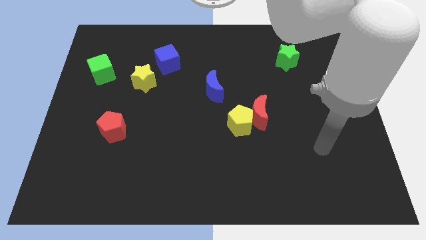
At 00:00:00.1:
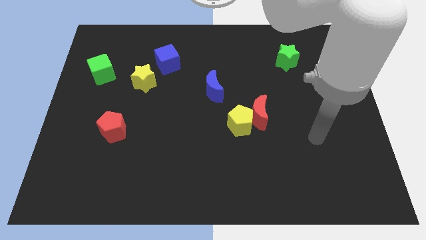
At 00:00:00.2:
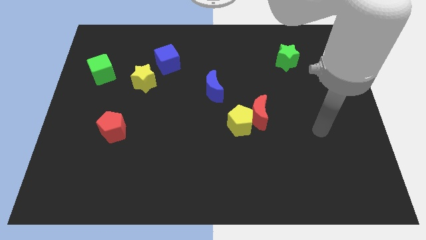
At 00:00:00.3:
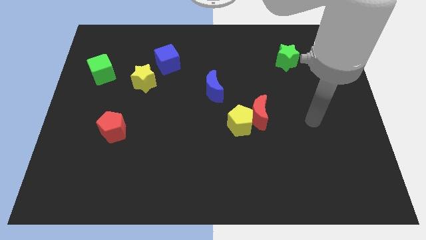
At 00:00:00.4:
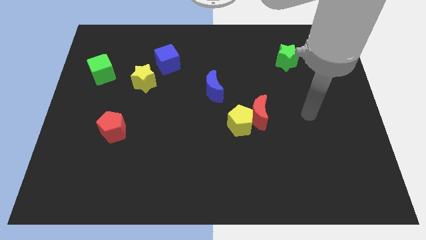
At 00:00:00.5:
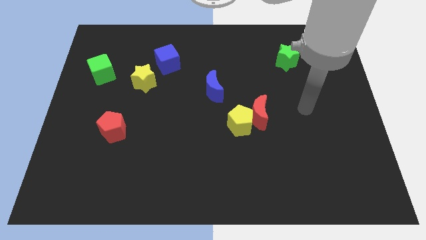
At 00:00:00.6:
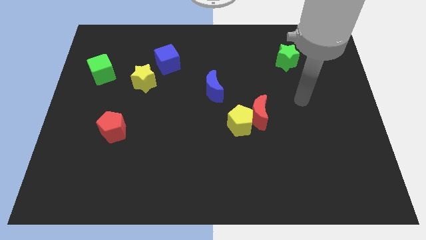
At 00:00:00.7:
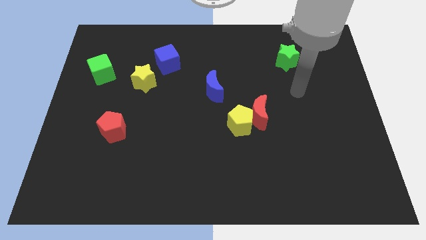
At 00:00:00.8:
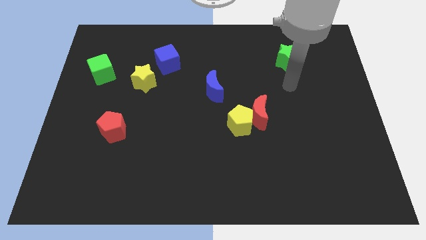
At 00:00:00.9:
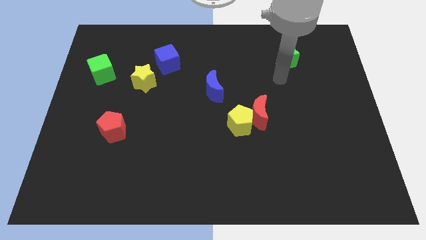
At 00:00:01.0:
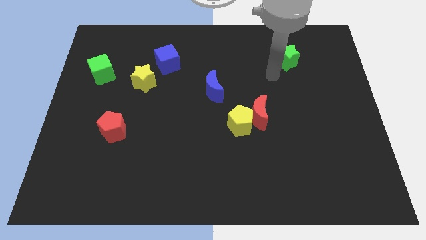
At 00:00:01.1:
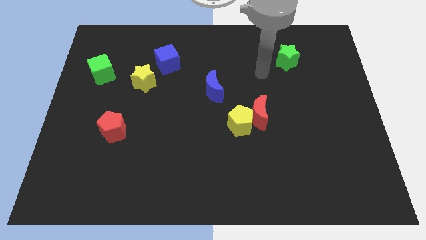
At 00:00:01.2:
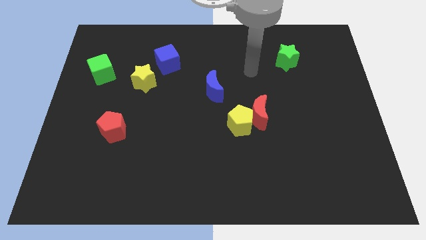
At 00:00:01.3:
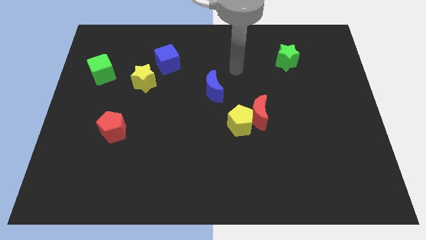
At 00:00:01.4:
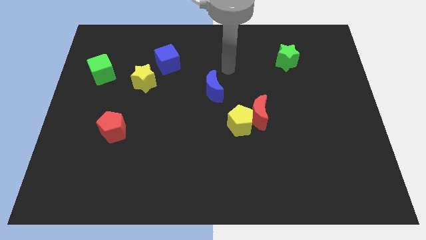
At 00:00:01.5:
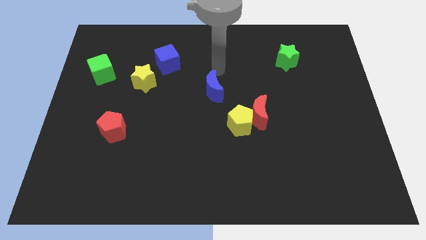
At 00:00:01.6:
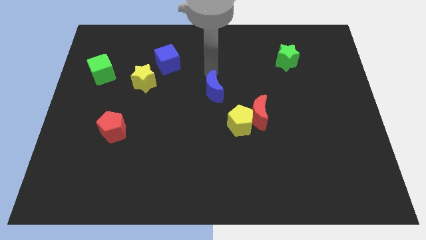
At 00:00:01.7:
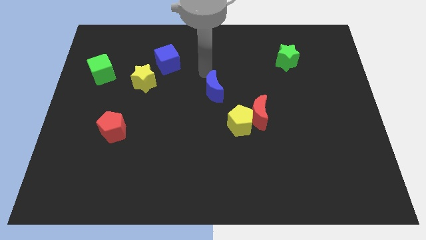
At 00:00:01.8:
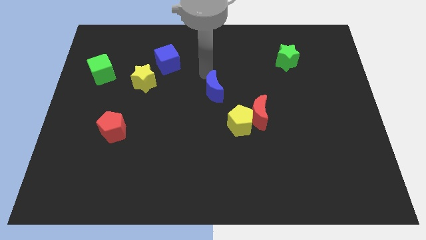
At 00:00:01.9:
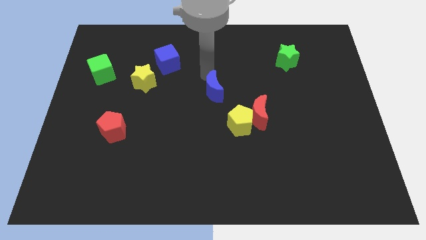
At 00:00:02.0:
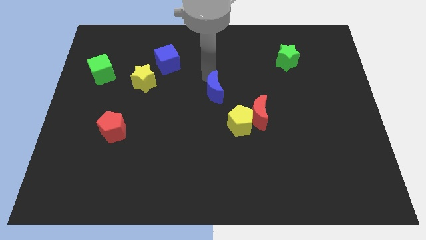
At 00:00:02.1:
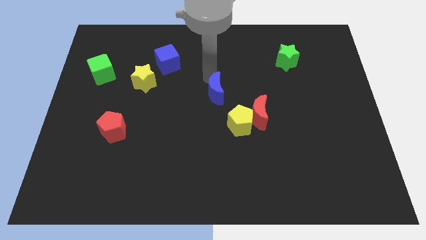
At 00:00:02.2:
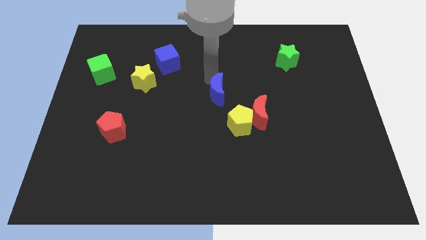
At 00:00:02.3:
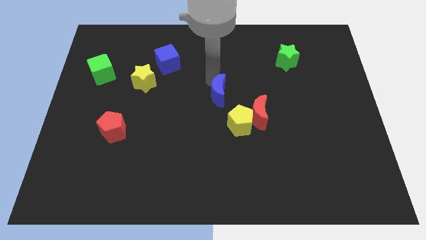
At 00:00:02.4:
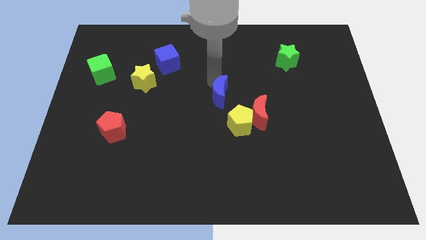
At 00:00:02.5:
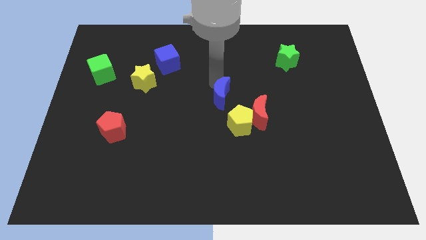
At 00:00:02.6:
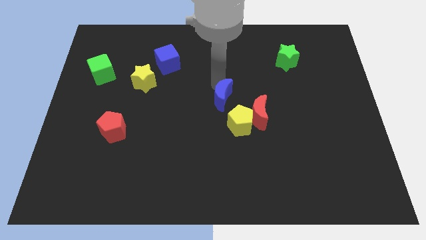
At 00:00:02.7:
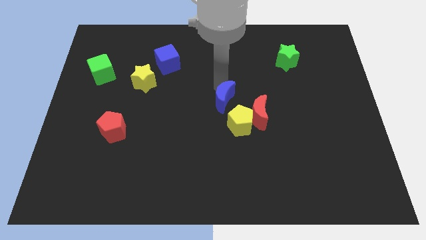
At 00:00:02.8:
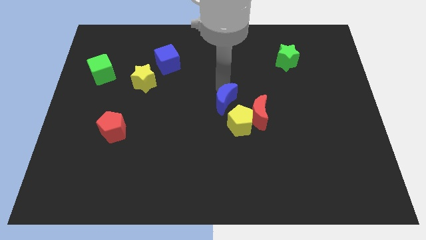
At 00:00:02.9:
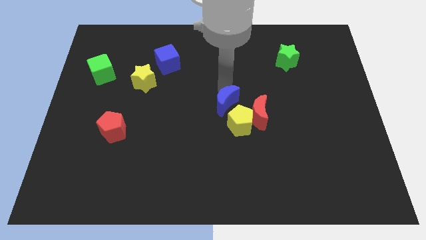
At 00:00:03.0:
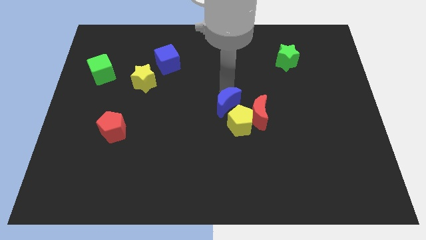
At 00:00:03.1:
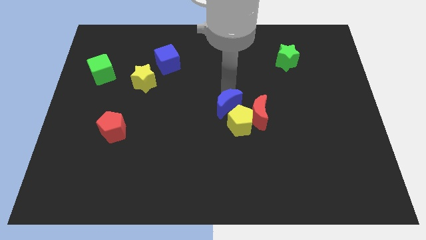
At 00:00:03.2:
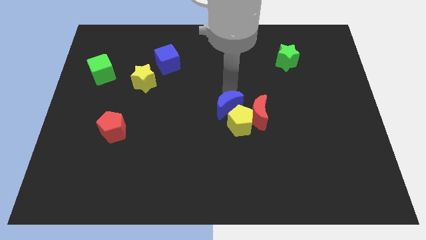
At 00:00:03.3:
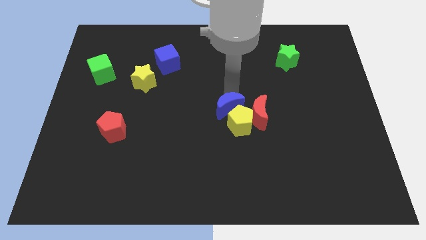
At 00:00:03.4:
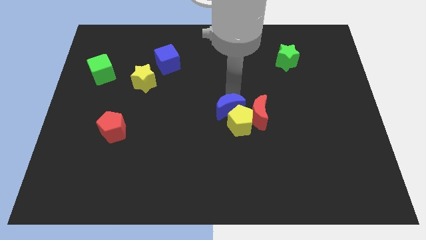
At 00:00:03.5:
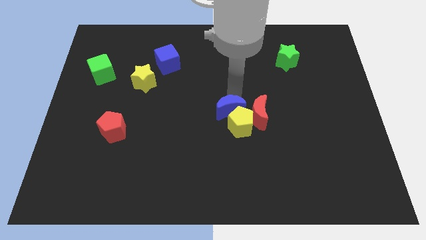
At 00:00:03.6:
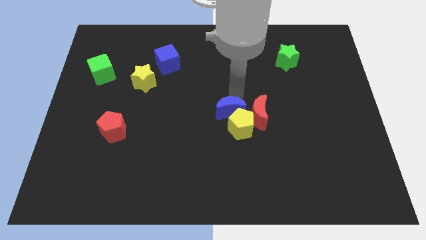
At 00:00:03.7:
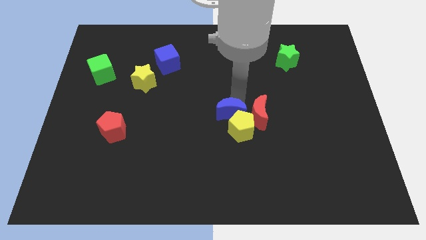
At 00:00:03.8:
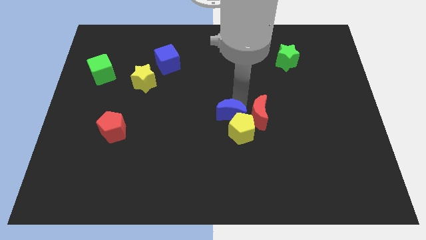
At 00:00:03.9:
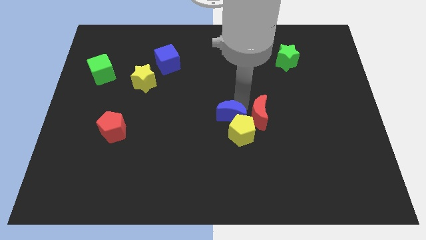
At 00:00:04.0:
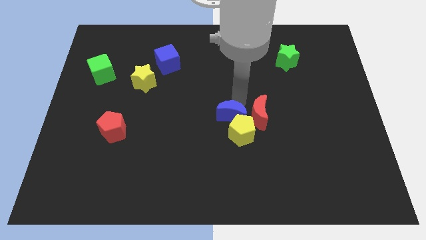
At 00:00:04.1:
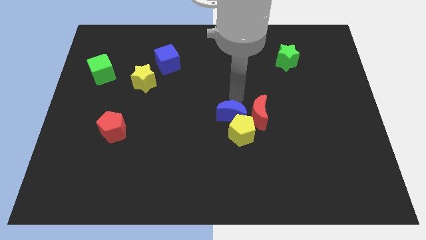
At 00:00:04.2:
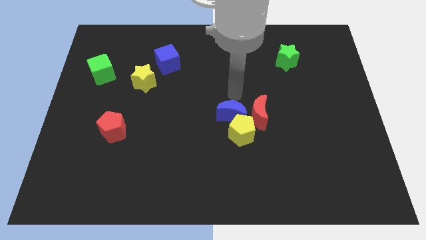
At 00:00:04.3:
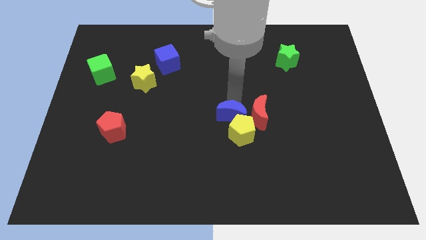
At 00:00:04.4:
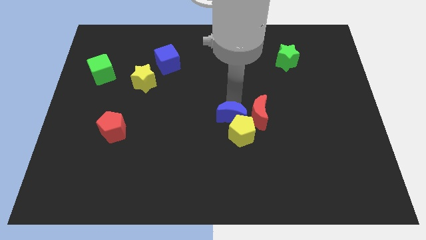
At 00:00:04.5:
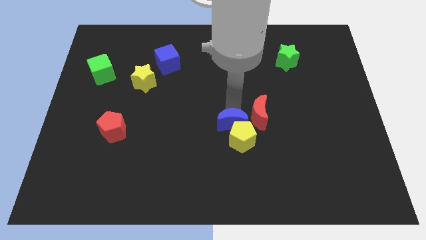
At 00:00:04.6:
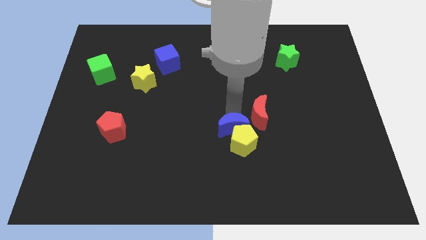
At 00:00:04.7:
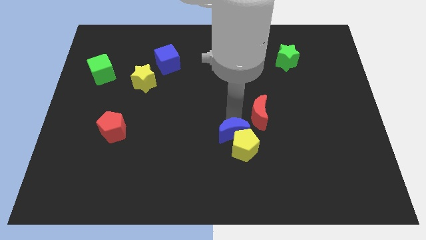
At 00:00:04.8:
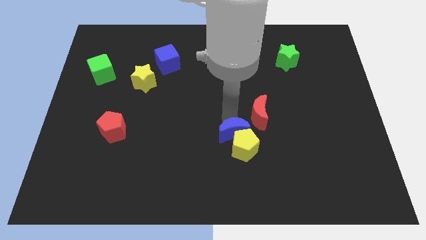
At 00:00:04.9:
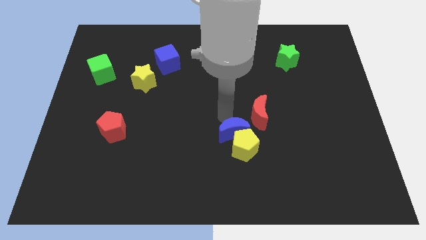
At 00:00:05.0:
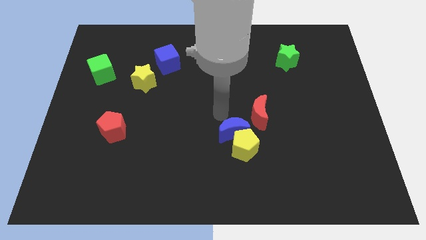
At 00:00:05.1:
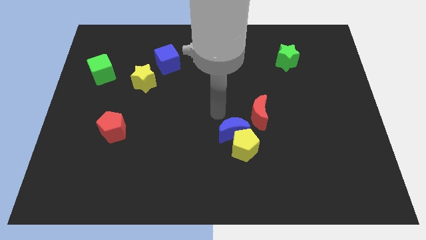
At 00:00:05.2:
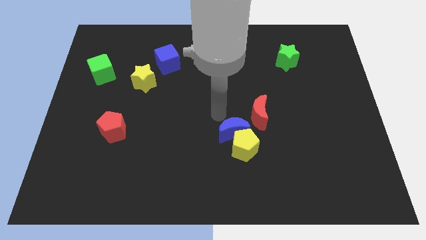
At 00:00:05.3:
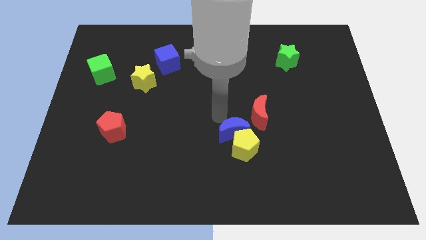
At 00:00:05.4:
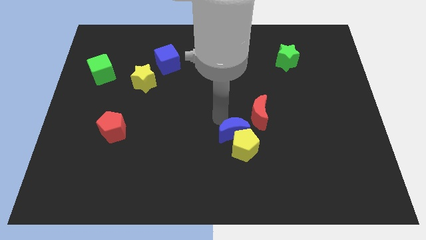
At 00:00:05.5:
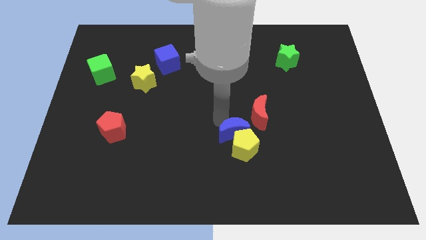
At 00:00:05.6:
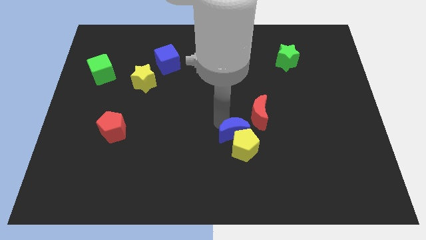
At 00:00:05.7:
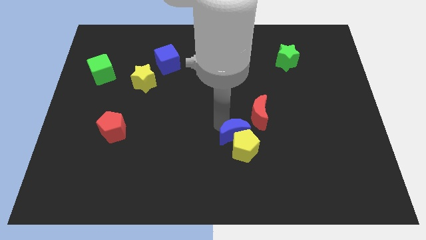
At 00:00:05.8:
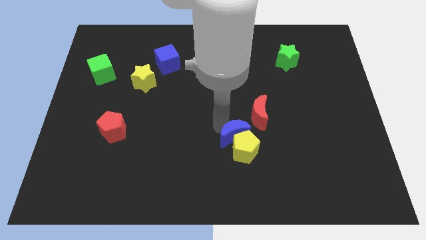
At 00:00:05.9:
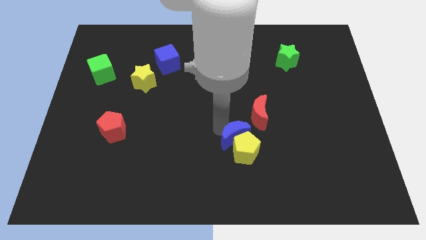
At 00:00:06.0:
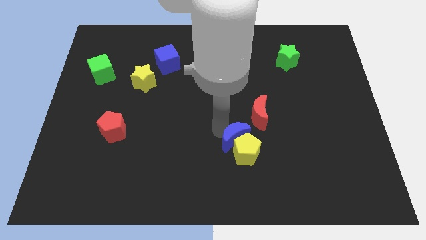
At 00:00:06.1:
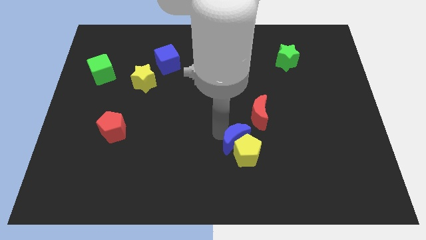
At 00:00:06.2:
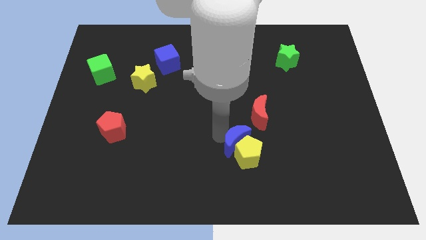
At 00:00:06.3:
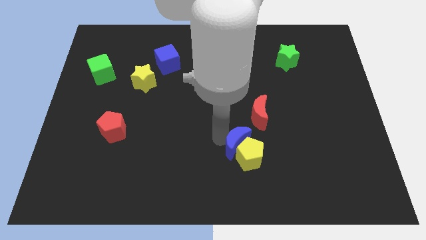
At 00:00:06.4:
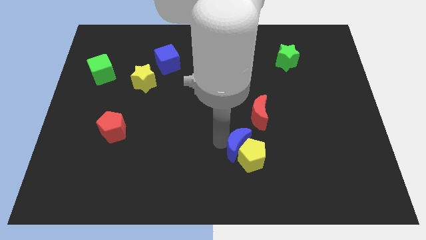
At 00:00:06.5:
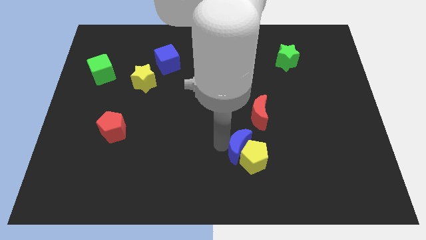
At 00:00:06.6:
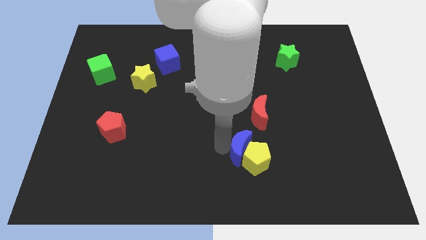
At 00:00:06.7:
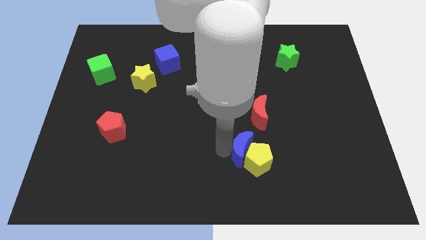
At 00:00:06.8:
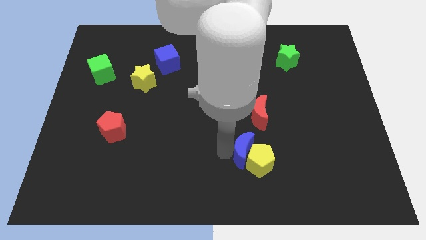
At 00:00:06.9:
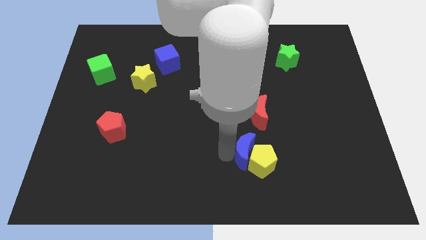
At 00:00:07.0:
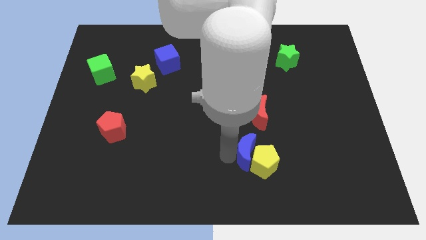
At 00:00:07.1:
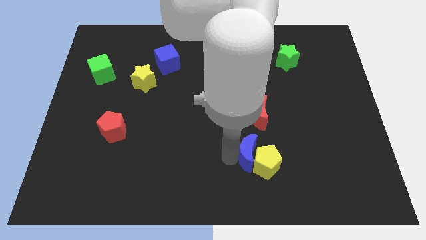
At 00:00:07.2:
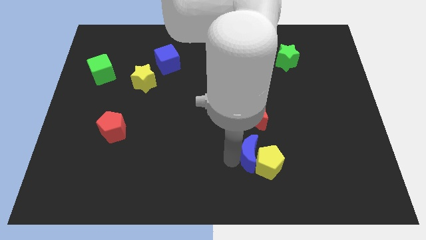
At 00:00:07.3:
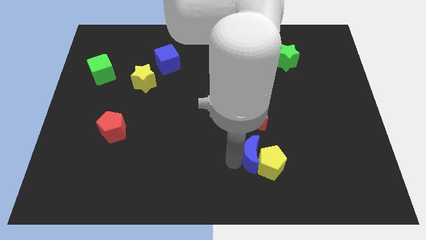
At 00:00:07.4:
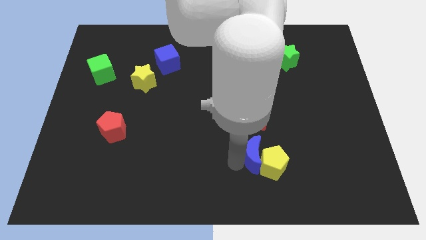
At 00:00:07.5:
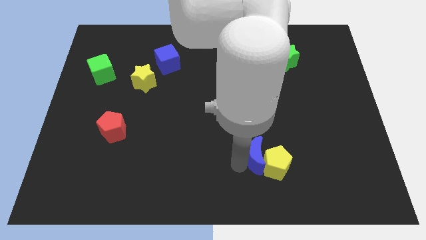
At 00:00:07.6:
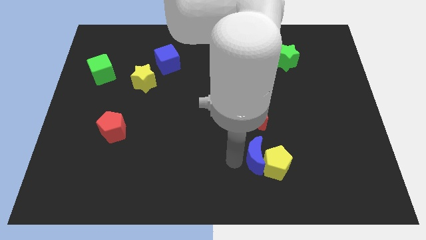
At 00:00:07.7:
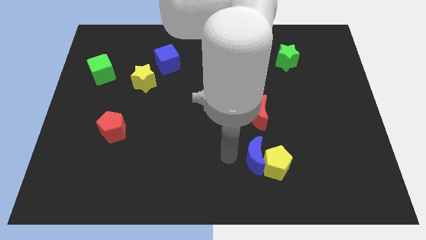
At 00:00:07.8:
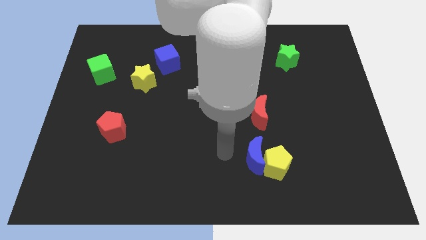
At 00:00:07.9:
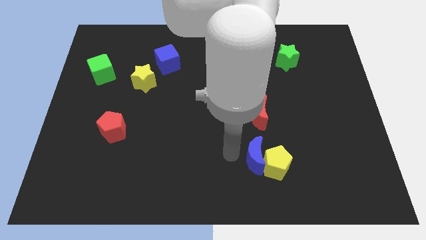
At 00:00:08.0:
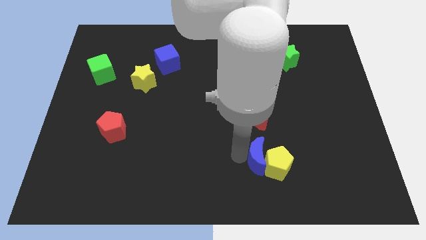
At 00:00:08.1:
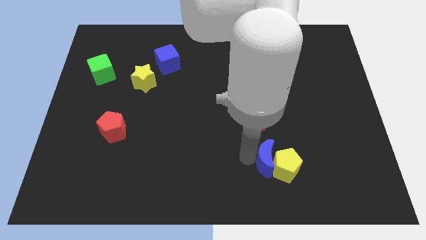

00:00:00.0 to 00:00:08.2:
push the blue moon down and then to the right
